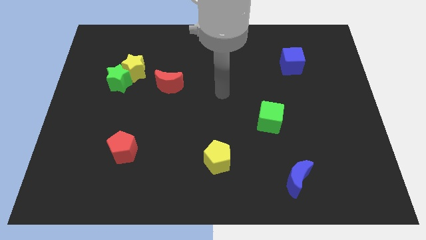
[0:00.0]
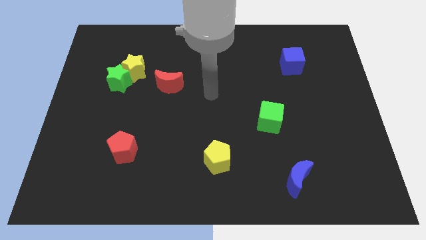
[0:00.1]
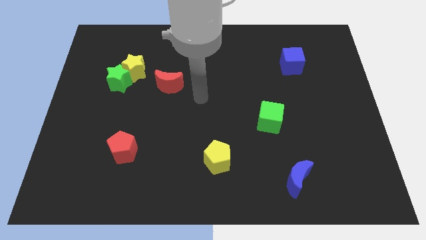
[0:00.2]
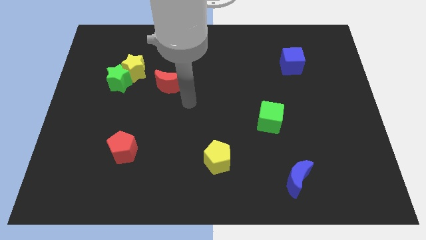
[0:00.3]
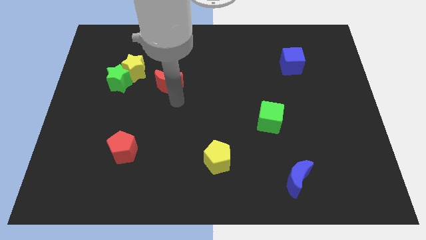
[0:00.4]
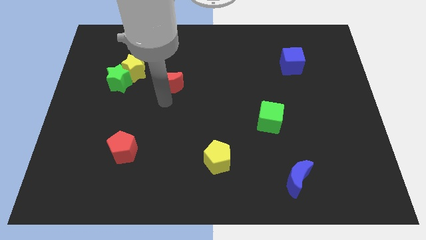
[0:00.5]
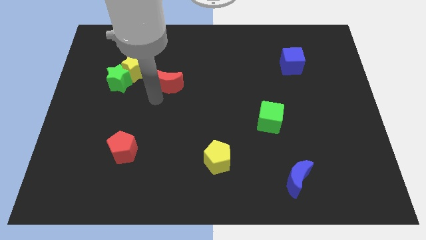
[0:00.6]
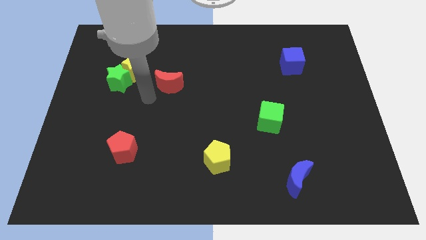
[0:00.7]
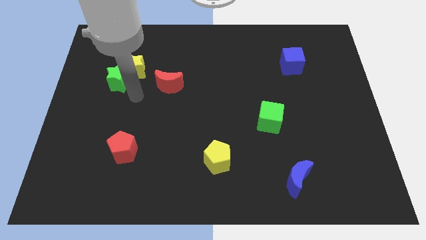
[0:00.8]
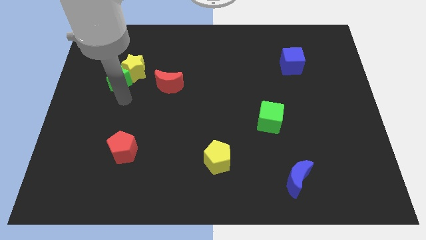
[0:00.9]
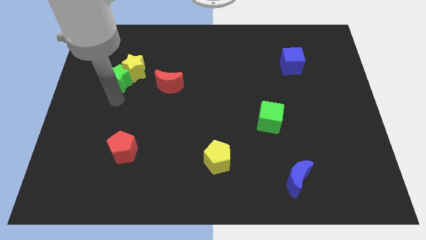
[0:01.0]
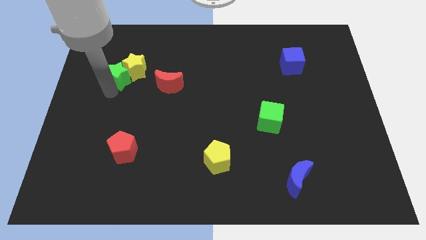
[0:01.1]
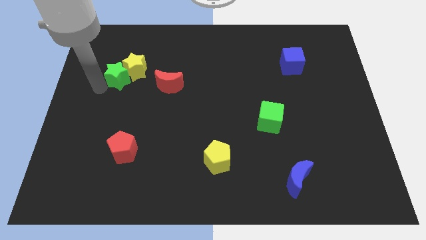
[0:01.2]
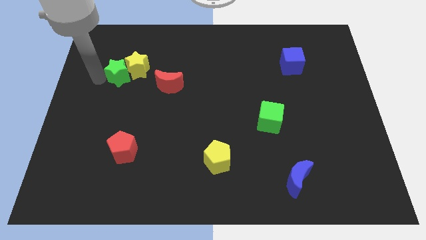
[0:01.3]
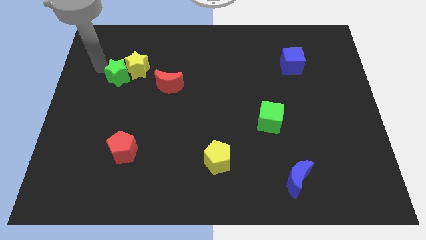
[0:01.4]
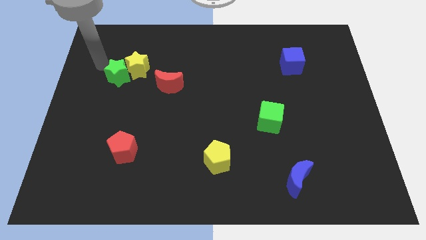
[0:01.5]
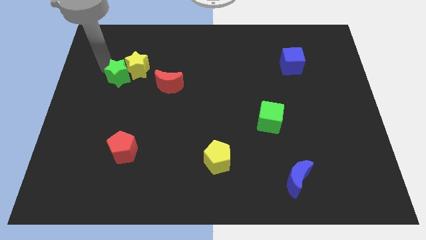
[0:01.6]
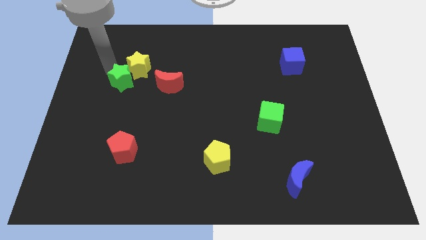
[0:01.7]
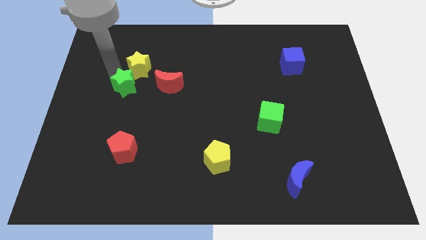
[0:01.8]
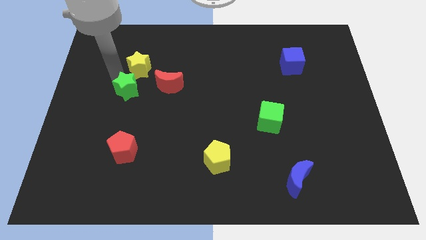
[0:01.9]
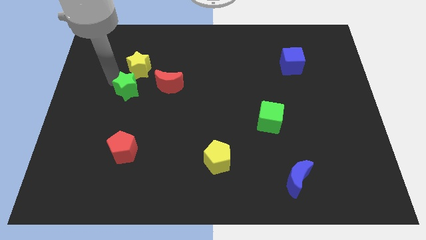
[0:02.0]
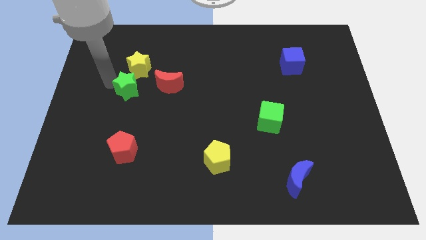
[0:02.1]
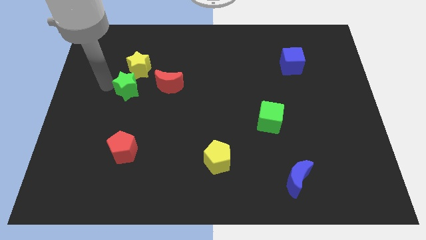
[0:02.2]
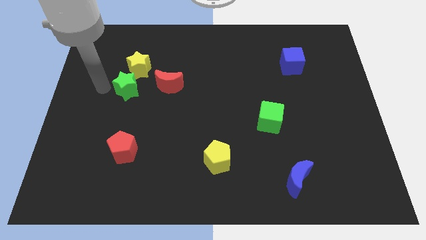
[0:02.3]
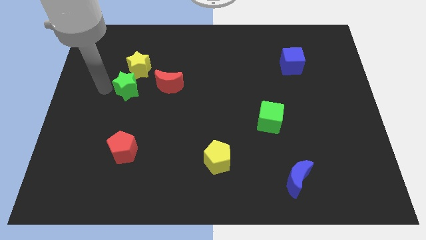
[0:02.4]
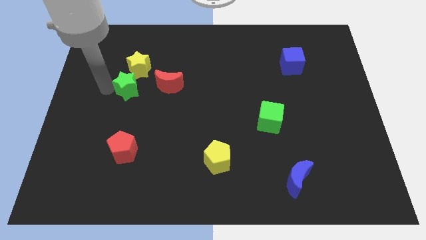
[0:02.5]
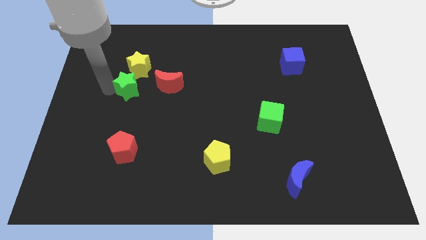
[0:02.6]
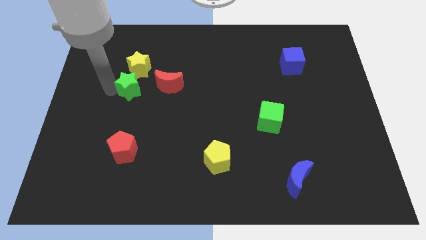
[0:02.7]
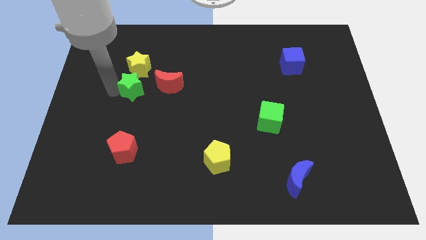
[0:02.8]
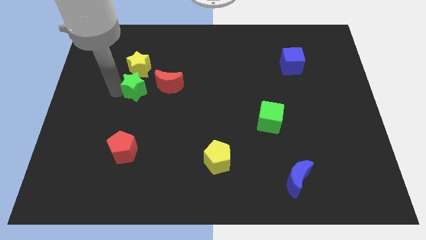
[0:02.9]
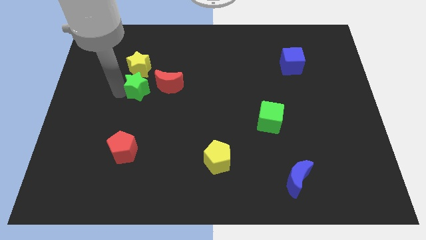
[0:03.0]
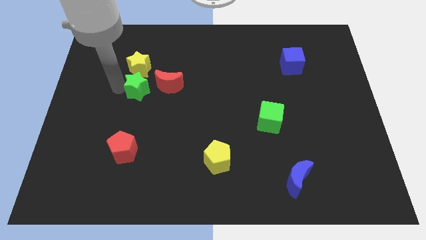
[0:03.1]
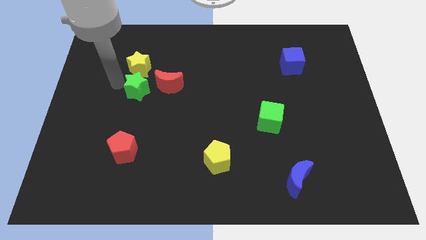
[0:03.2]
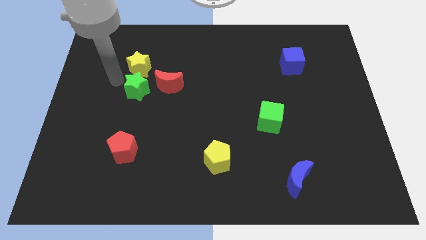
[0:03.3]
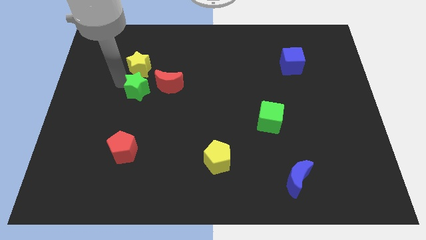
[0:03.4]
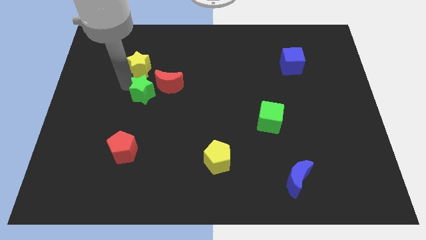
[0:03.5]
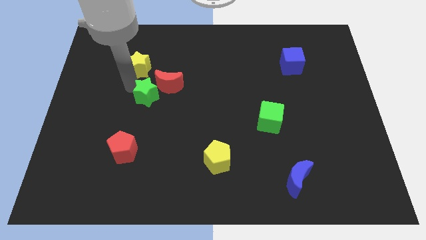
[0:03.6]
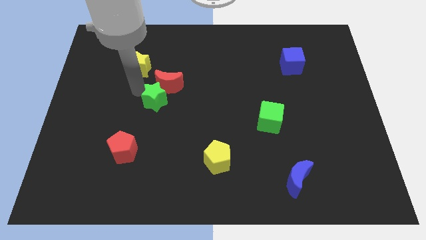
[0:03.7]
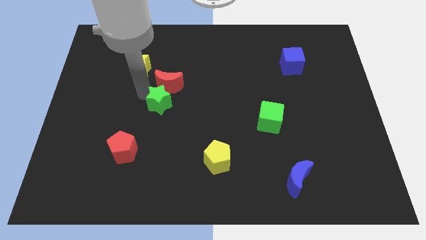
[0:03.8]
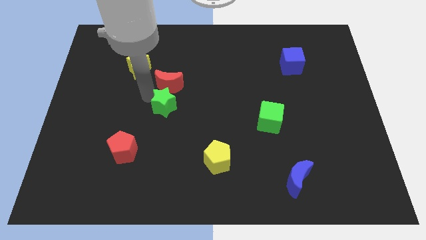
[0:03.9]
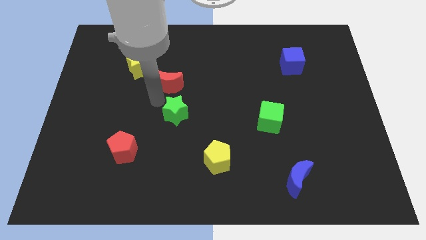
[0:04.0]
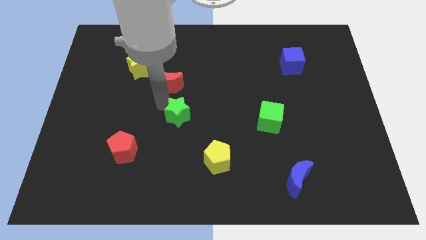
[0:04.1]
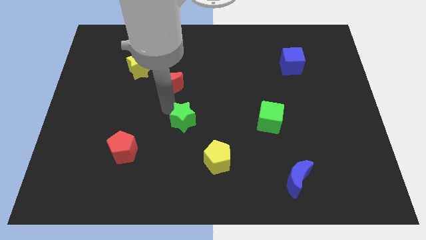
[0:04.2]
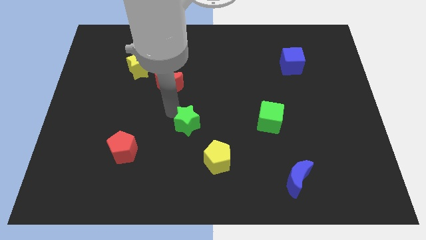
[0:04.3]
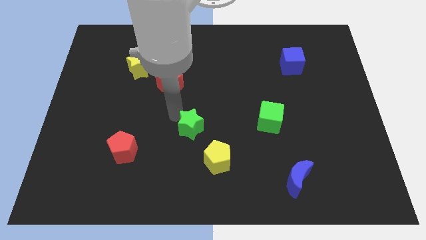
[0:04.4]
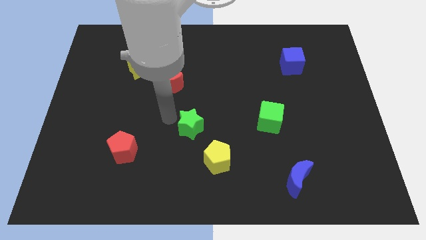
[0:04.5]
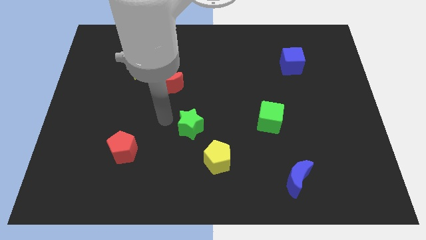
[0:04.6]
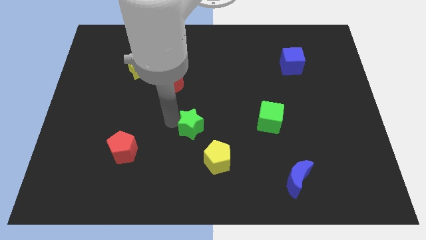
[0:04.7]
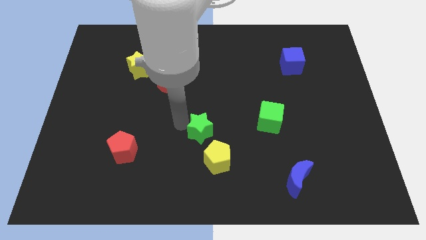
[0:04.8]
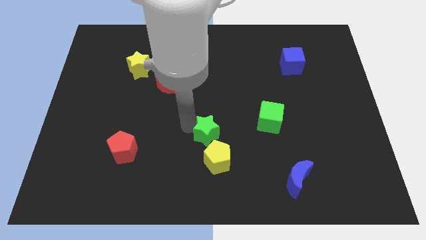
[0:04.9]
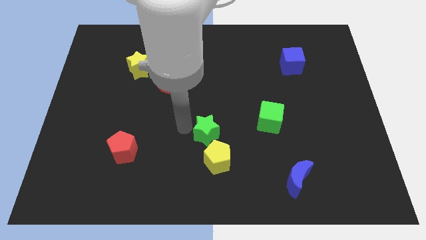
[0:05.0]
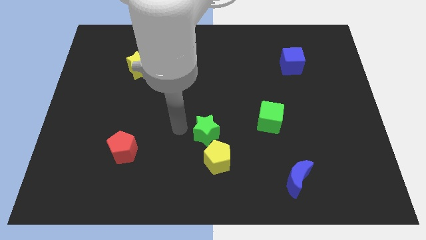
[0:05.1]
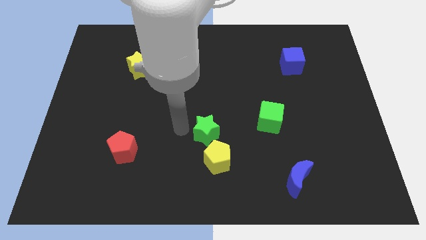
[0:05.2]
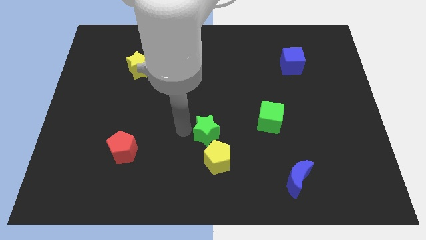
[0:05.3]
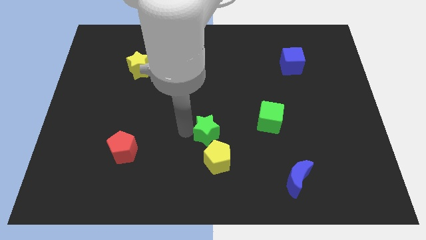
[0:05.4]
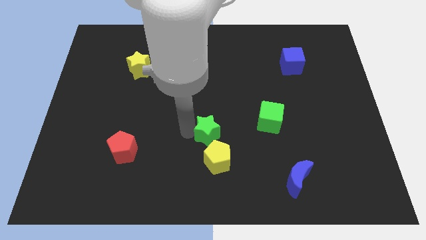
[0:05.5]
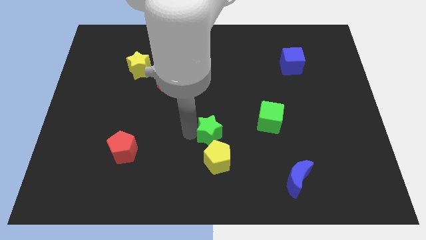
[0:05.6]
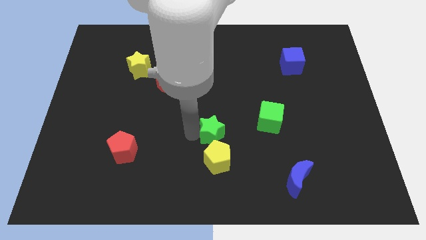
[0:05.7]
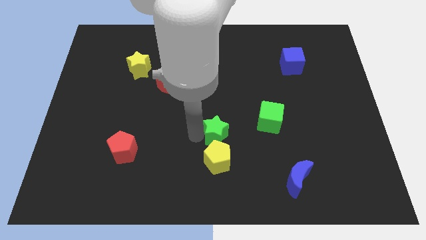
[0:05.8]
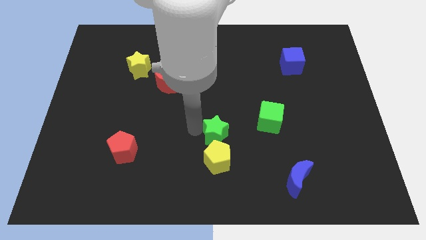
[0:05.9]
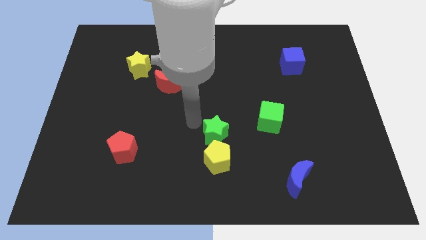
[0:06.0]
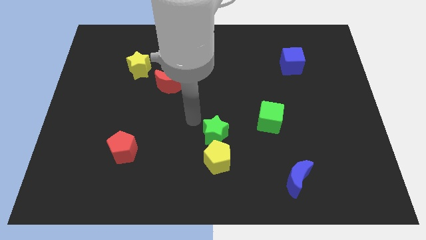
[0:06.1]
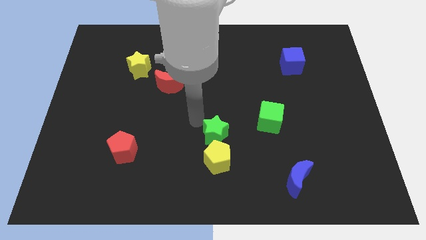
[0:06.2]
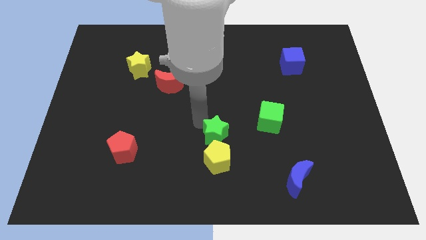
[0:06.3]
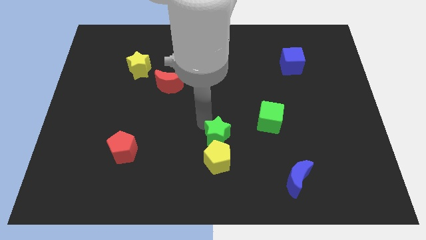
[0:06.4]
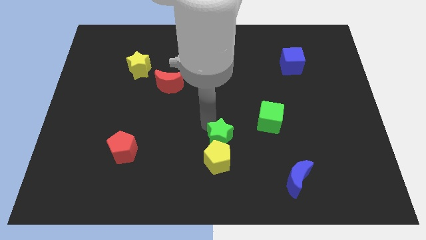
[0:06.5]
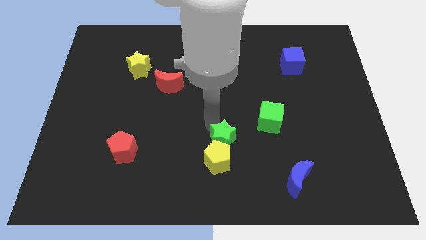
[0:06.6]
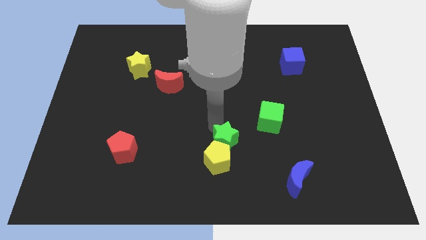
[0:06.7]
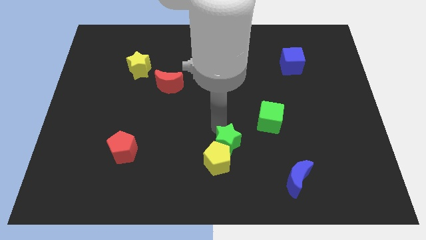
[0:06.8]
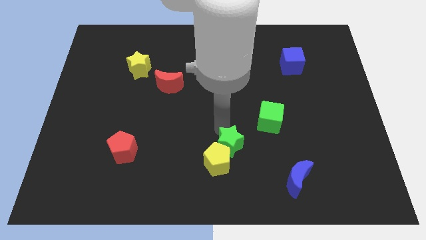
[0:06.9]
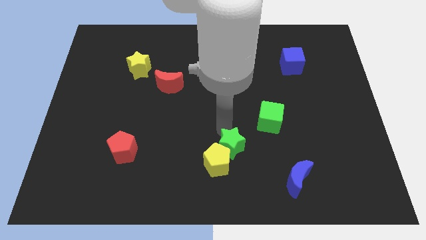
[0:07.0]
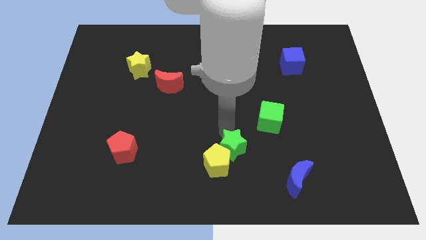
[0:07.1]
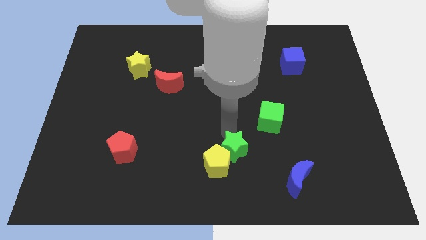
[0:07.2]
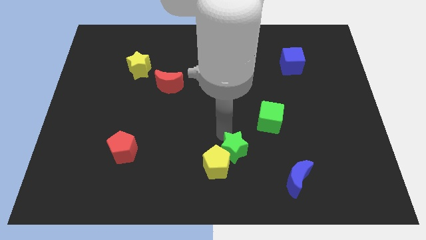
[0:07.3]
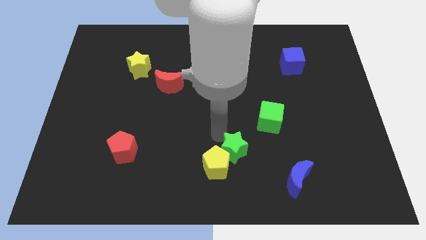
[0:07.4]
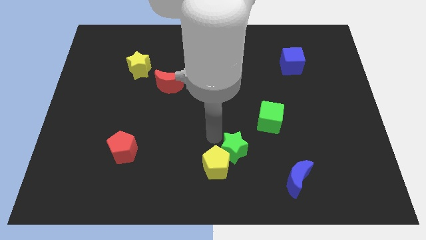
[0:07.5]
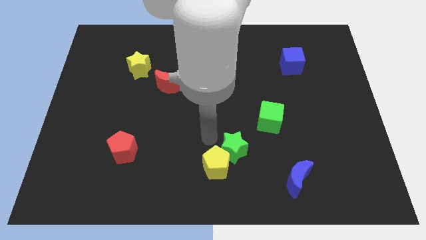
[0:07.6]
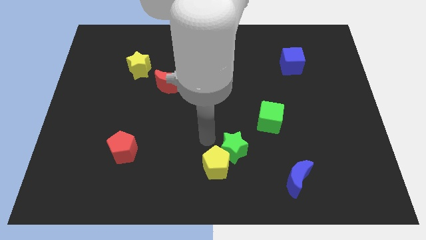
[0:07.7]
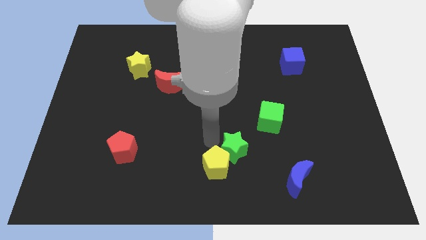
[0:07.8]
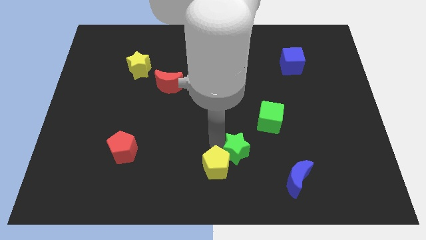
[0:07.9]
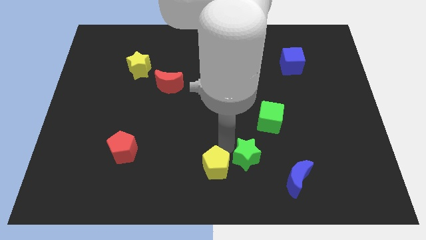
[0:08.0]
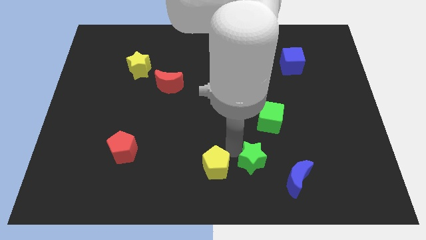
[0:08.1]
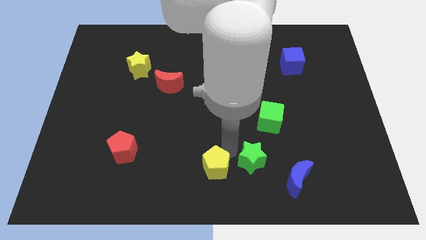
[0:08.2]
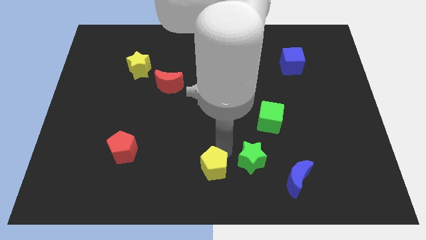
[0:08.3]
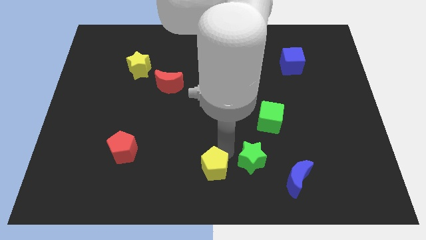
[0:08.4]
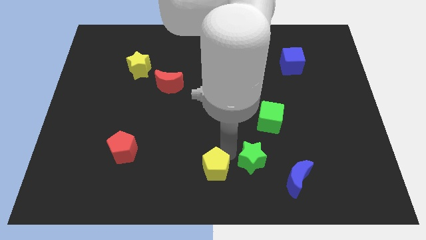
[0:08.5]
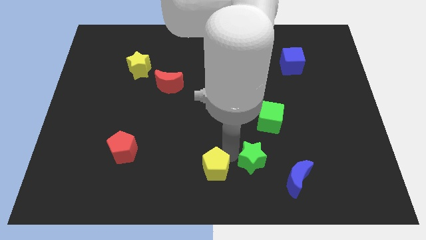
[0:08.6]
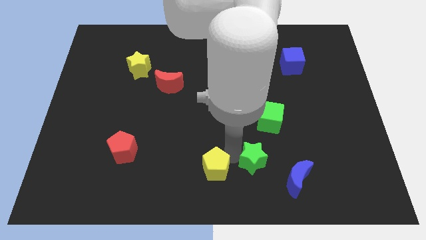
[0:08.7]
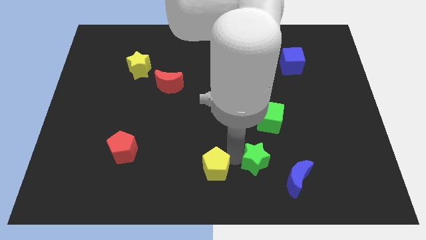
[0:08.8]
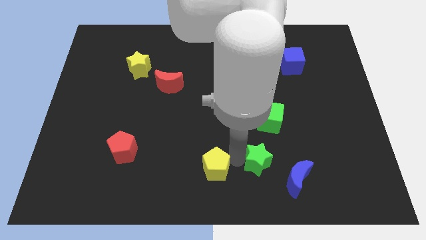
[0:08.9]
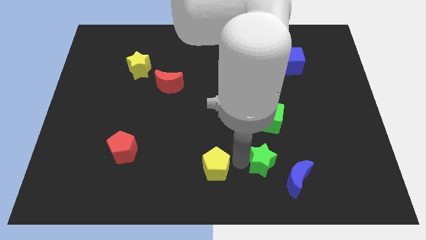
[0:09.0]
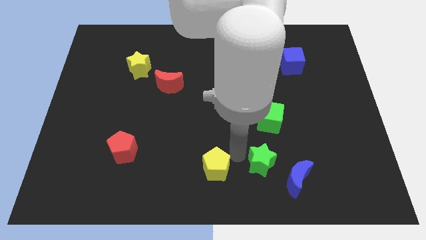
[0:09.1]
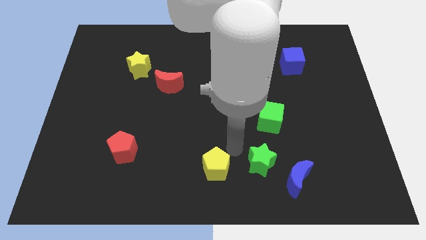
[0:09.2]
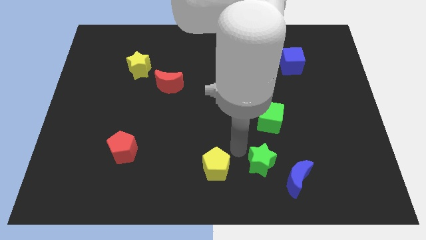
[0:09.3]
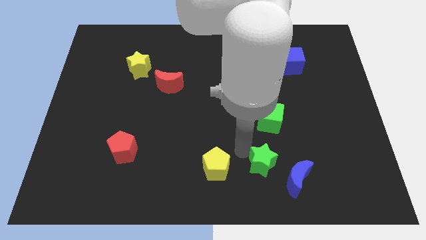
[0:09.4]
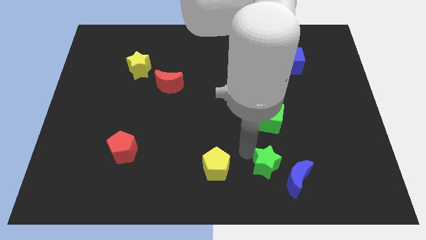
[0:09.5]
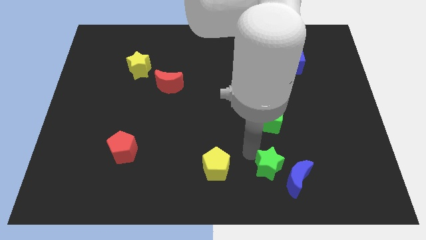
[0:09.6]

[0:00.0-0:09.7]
slide the green star close to the blue moon
